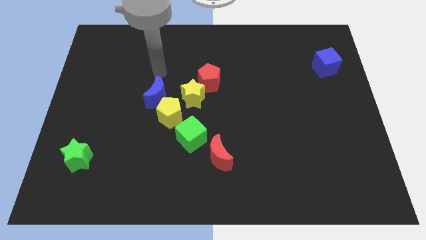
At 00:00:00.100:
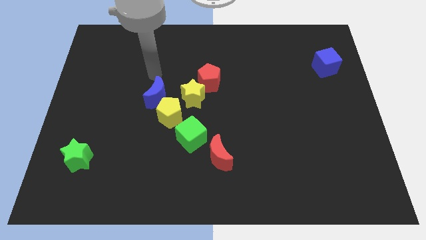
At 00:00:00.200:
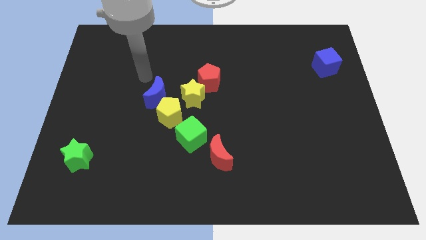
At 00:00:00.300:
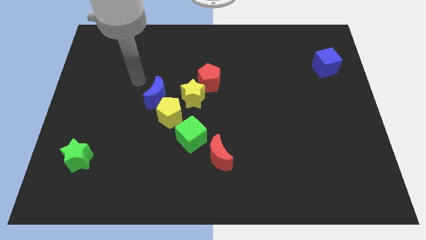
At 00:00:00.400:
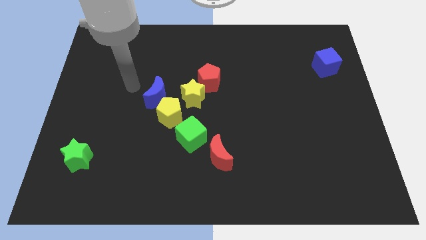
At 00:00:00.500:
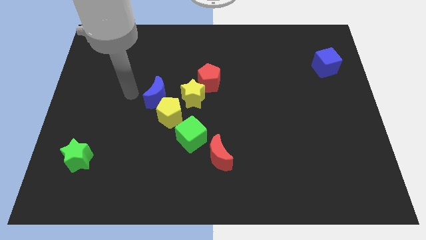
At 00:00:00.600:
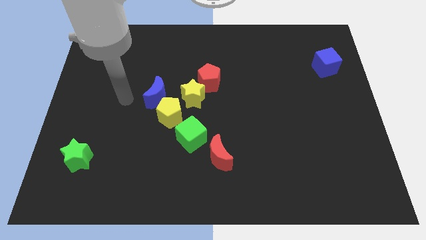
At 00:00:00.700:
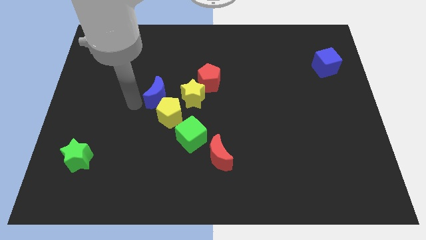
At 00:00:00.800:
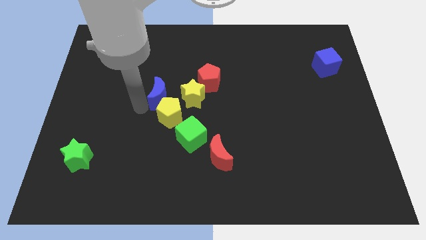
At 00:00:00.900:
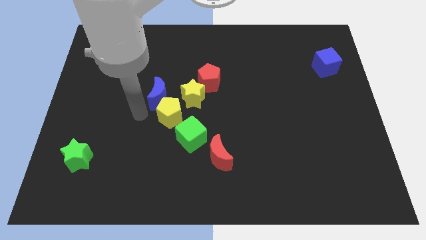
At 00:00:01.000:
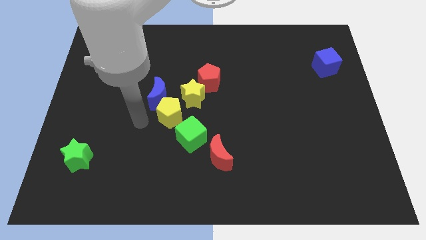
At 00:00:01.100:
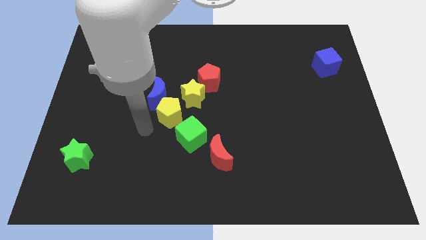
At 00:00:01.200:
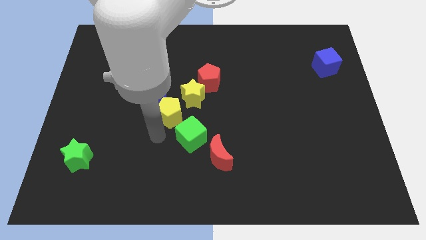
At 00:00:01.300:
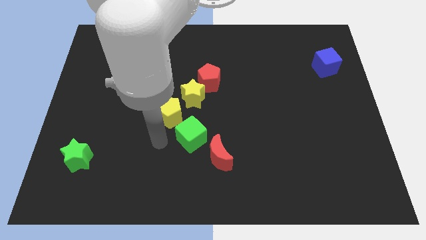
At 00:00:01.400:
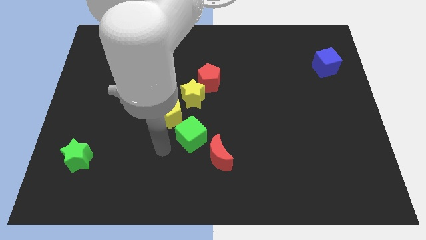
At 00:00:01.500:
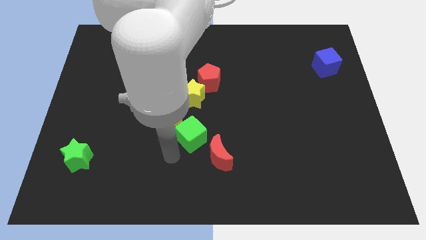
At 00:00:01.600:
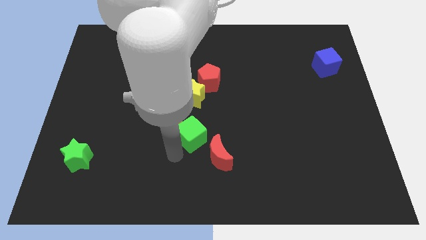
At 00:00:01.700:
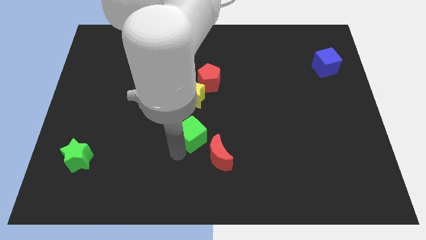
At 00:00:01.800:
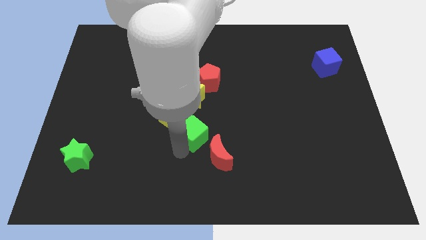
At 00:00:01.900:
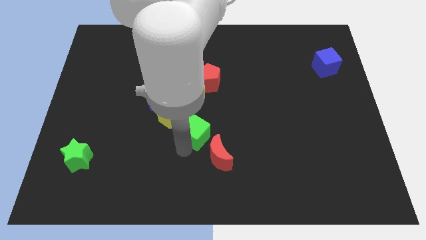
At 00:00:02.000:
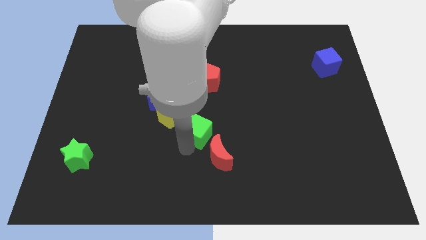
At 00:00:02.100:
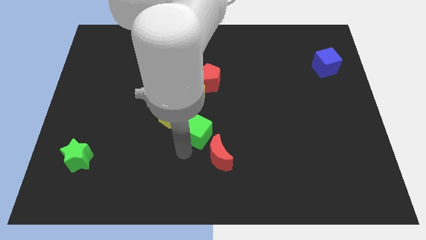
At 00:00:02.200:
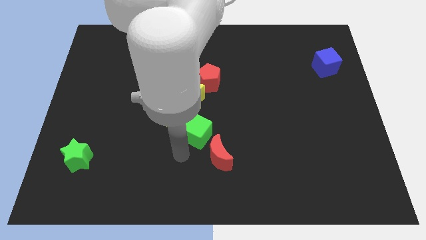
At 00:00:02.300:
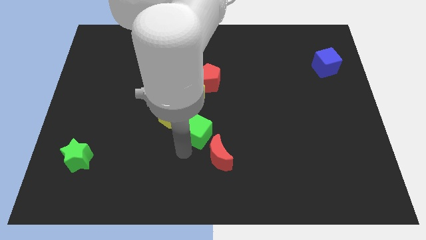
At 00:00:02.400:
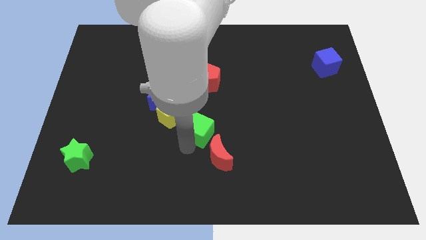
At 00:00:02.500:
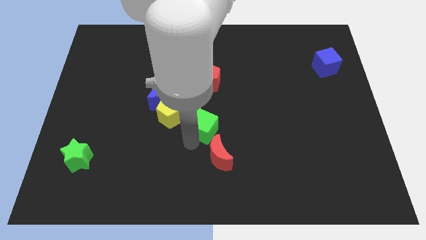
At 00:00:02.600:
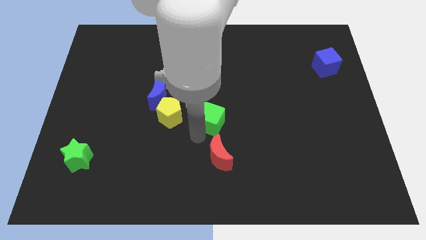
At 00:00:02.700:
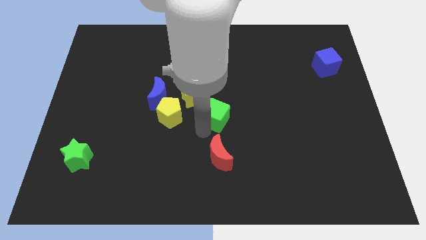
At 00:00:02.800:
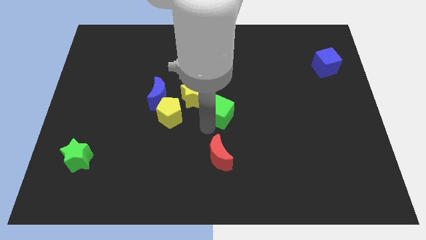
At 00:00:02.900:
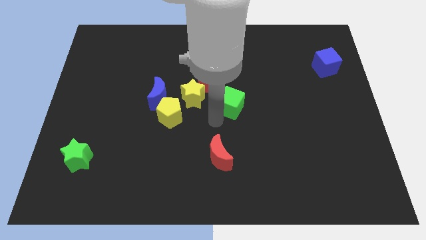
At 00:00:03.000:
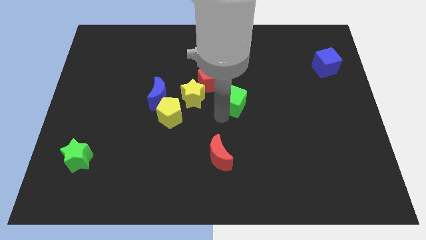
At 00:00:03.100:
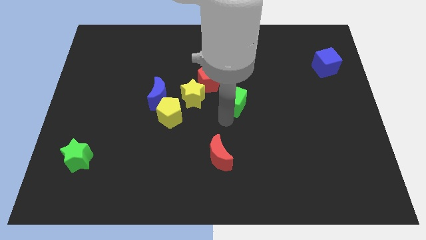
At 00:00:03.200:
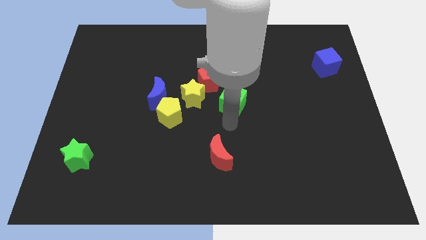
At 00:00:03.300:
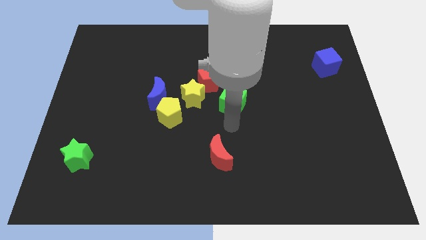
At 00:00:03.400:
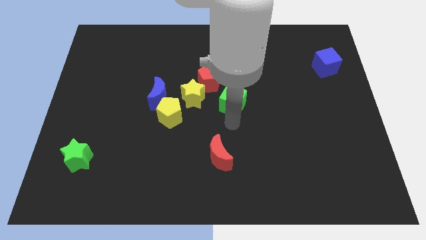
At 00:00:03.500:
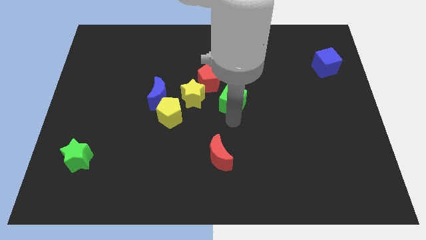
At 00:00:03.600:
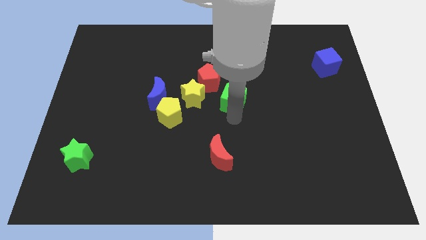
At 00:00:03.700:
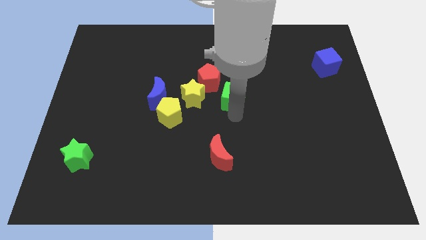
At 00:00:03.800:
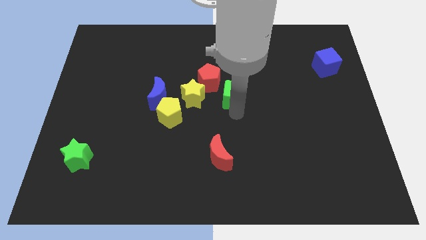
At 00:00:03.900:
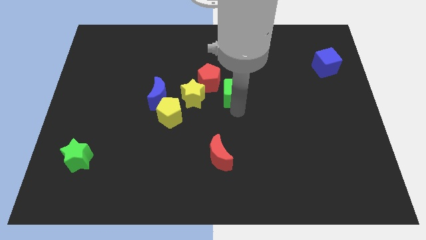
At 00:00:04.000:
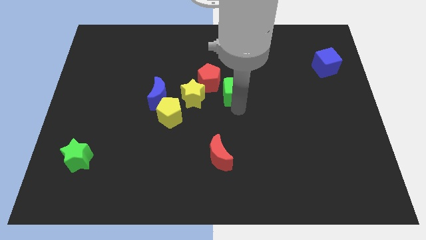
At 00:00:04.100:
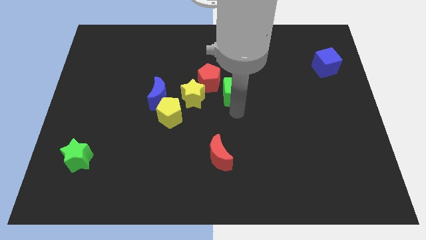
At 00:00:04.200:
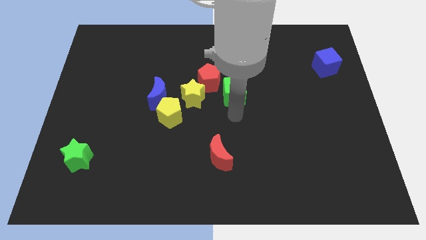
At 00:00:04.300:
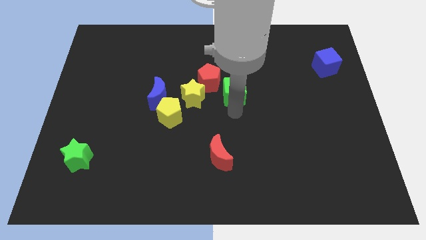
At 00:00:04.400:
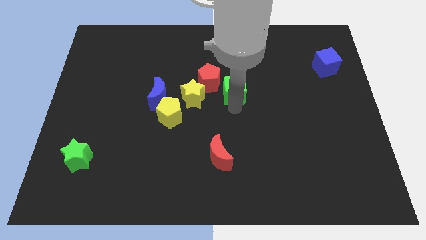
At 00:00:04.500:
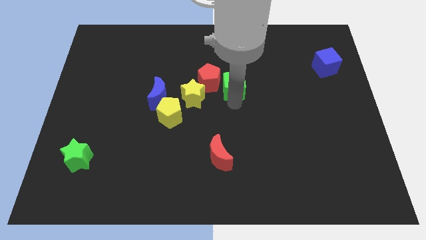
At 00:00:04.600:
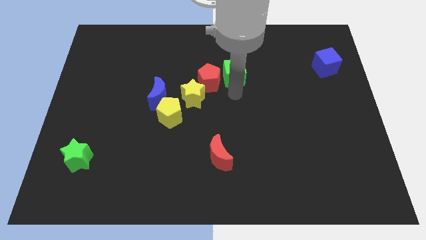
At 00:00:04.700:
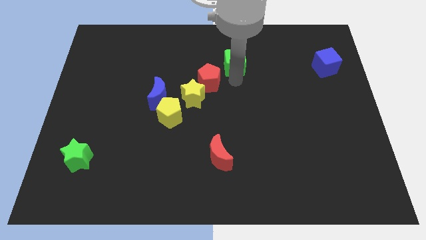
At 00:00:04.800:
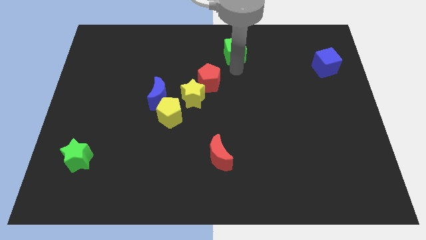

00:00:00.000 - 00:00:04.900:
push the green cube to the towards your base

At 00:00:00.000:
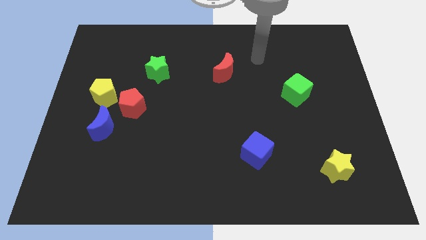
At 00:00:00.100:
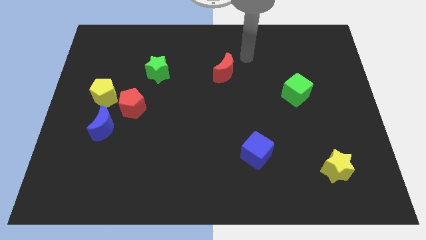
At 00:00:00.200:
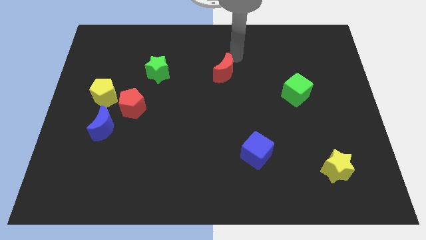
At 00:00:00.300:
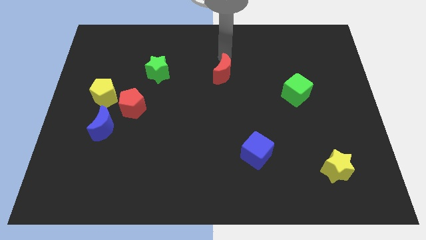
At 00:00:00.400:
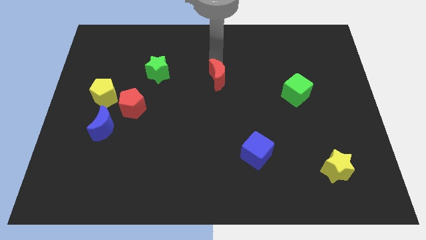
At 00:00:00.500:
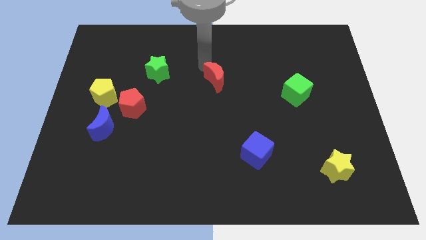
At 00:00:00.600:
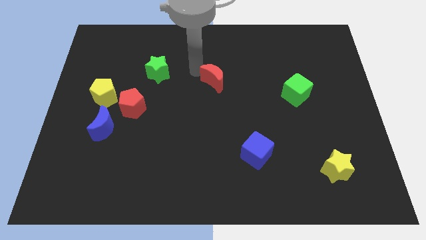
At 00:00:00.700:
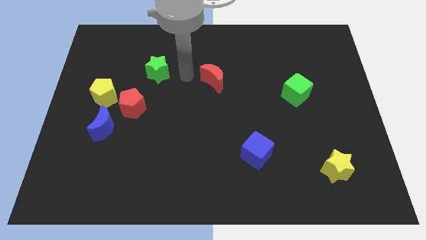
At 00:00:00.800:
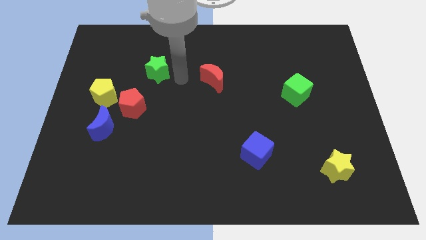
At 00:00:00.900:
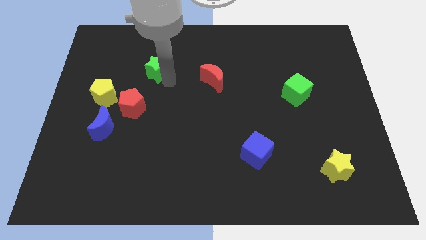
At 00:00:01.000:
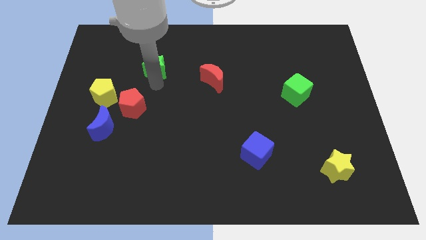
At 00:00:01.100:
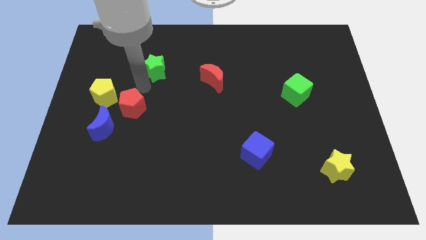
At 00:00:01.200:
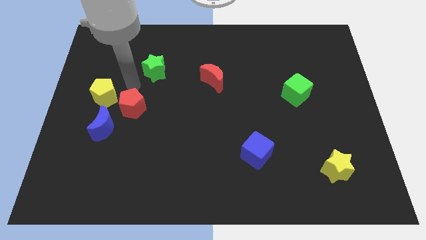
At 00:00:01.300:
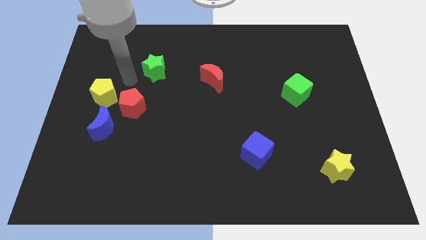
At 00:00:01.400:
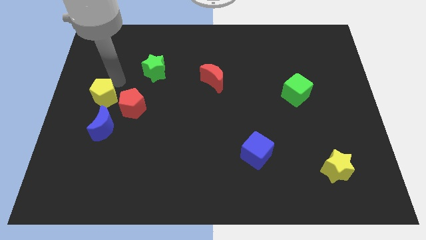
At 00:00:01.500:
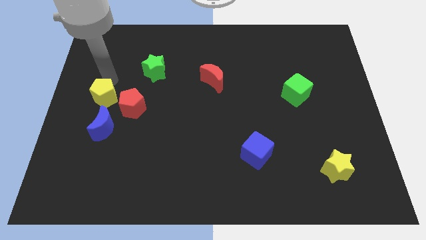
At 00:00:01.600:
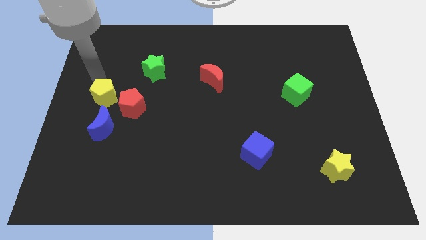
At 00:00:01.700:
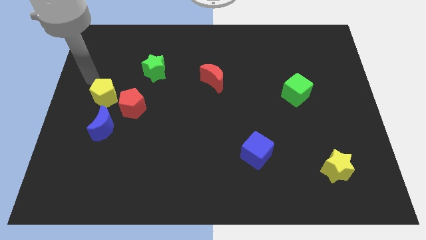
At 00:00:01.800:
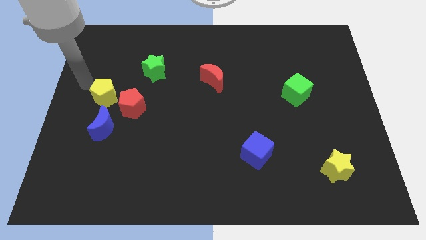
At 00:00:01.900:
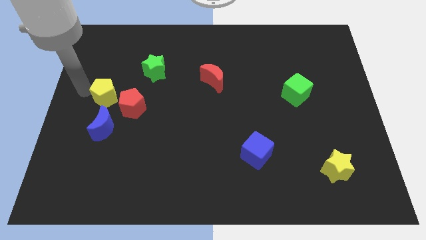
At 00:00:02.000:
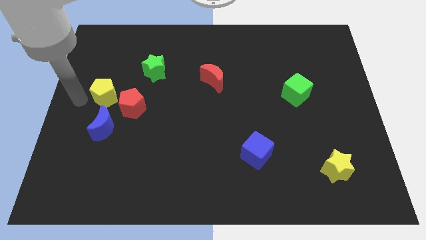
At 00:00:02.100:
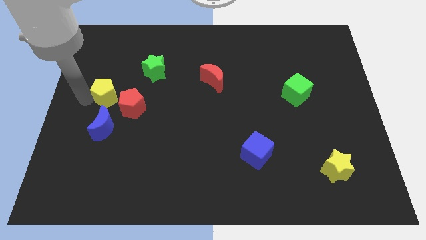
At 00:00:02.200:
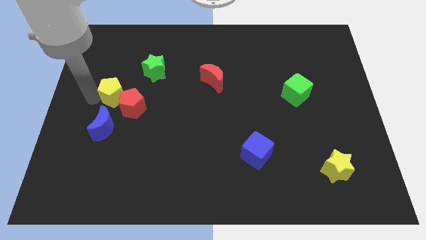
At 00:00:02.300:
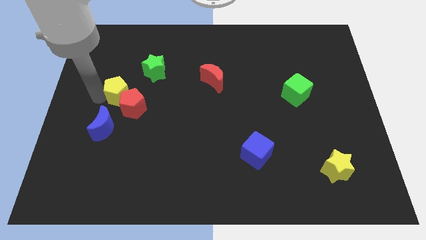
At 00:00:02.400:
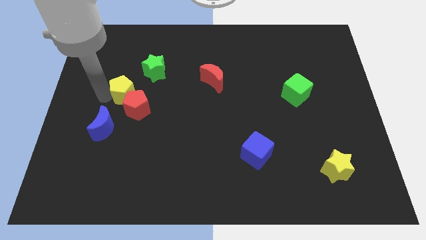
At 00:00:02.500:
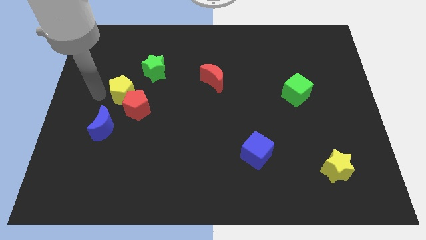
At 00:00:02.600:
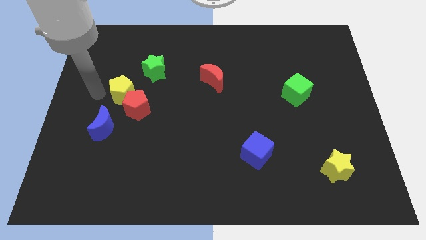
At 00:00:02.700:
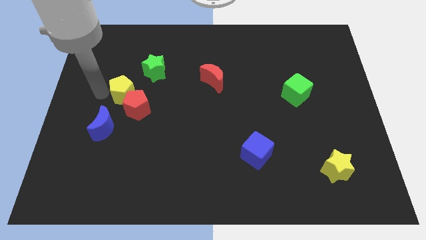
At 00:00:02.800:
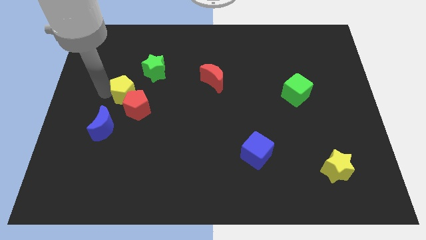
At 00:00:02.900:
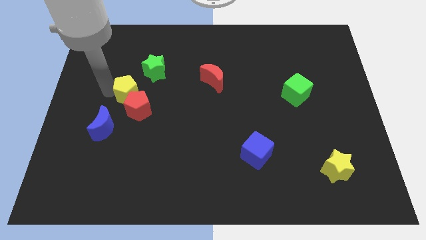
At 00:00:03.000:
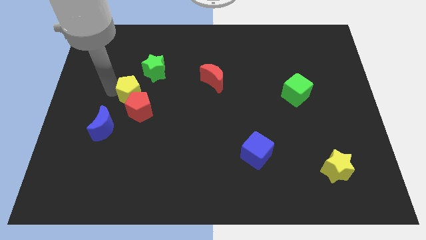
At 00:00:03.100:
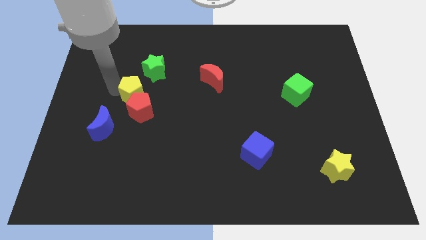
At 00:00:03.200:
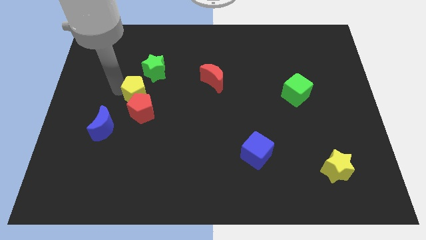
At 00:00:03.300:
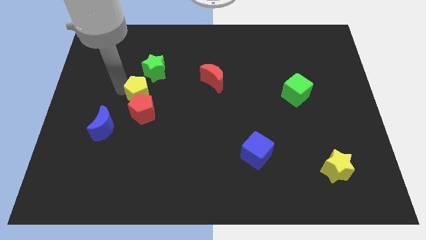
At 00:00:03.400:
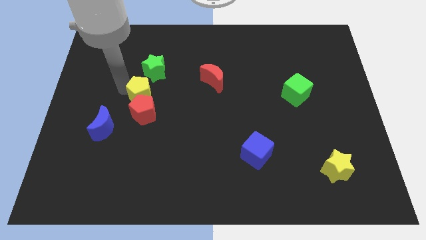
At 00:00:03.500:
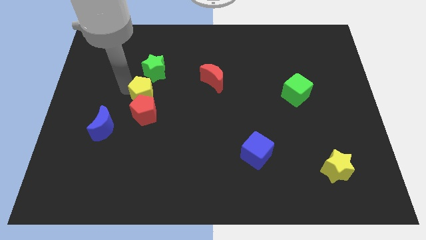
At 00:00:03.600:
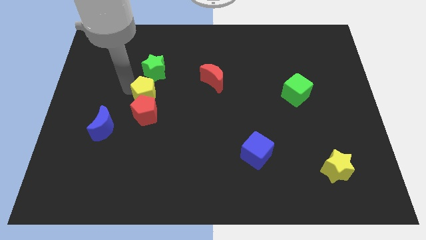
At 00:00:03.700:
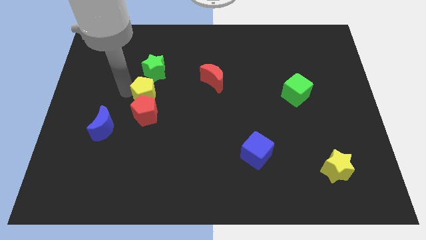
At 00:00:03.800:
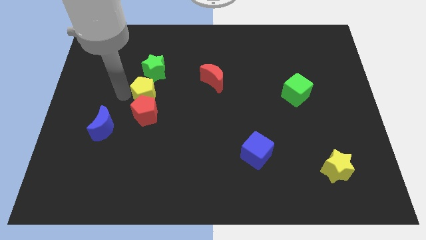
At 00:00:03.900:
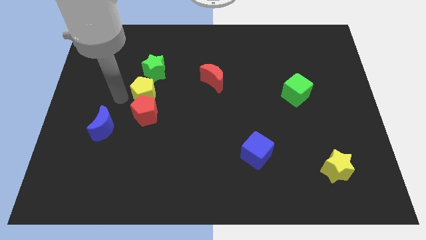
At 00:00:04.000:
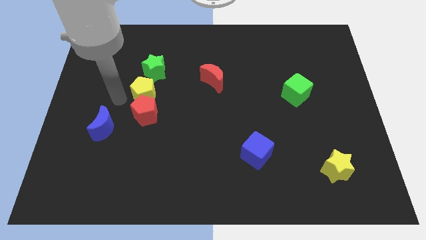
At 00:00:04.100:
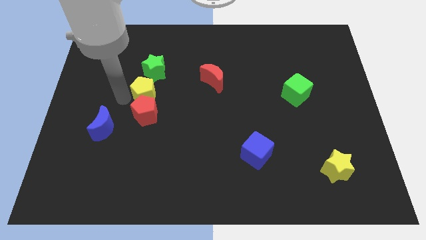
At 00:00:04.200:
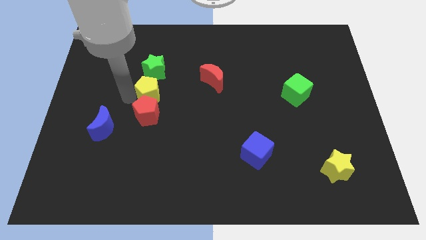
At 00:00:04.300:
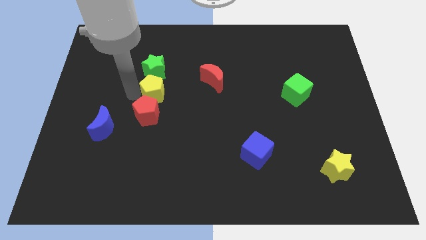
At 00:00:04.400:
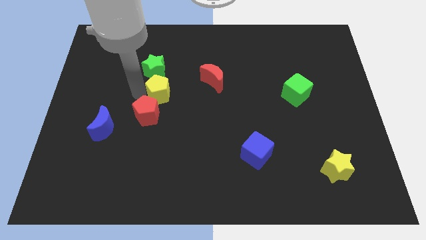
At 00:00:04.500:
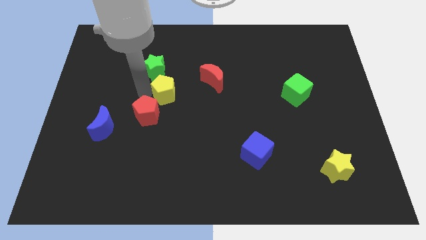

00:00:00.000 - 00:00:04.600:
push the yellow pentagon to the middle
